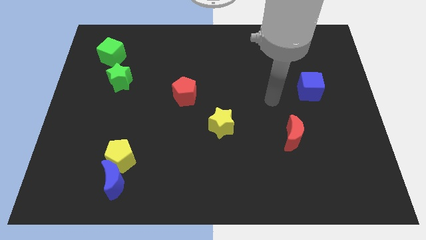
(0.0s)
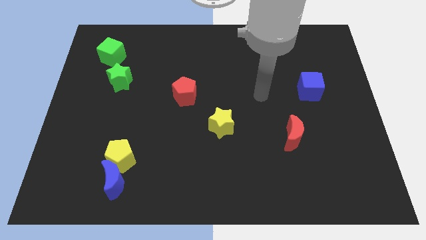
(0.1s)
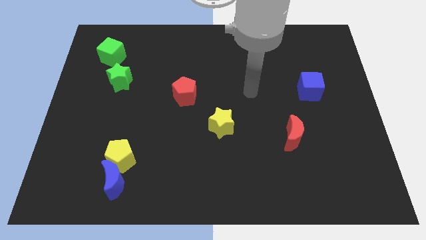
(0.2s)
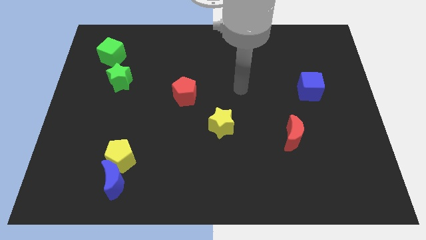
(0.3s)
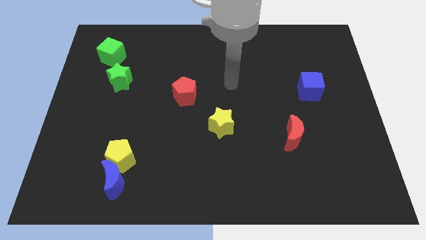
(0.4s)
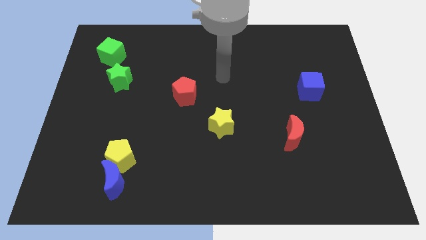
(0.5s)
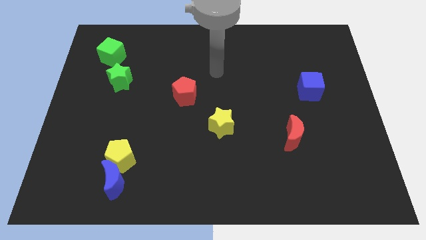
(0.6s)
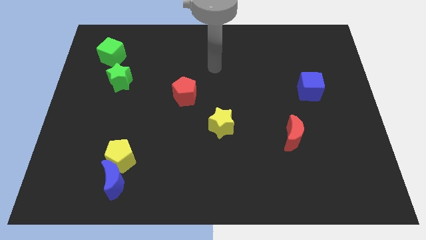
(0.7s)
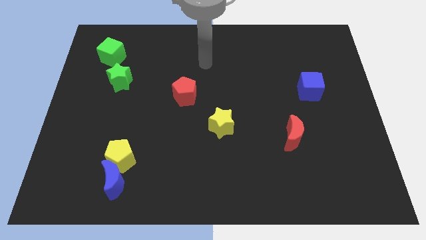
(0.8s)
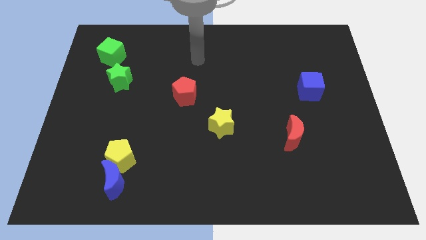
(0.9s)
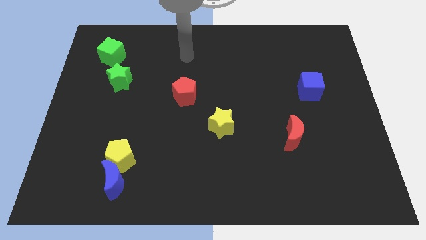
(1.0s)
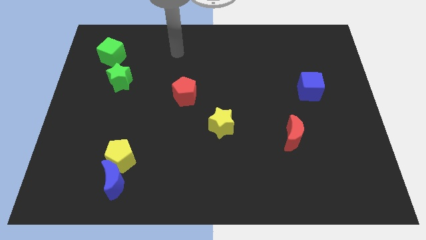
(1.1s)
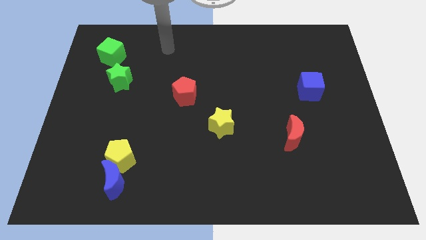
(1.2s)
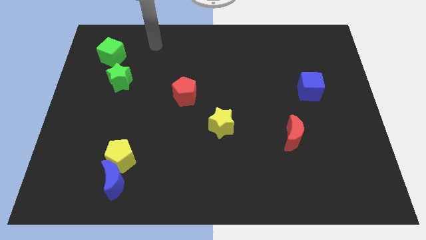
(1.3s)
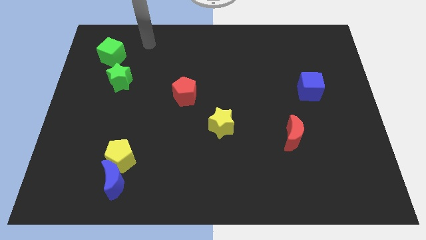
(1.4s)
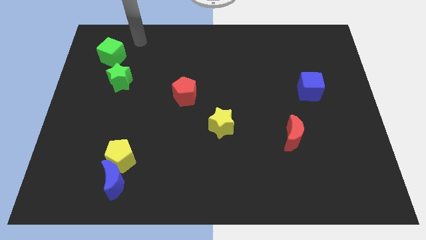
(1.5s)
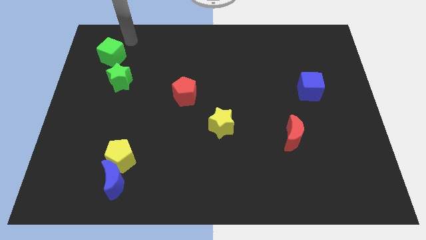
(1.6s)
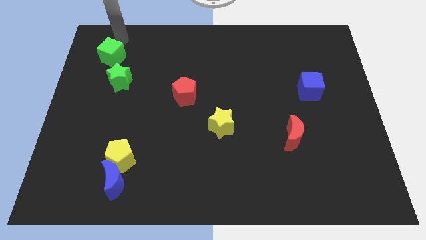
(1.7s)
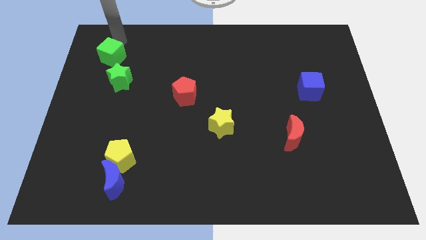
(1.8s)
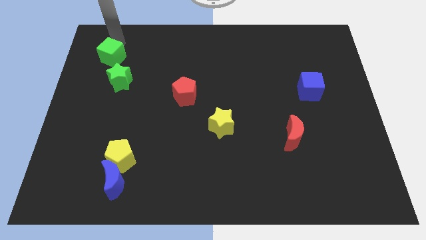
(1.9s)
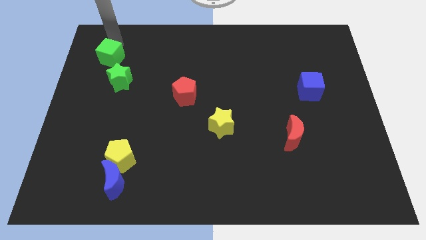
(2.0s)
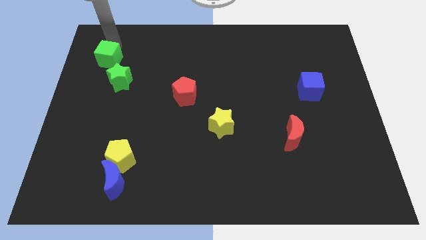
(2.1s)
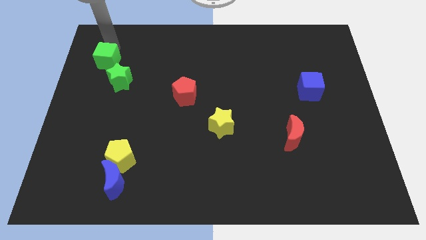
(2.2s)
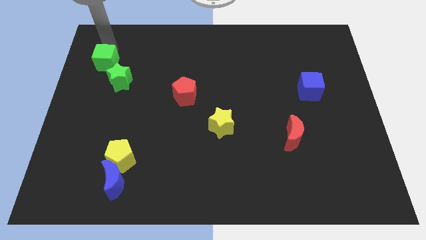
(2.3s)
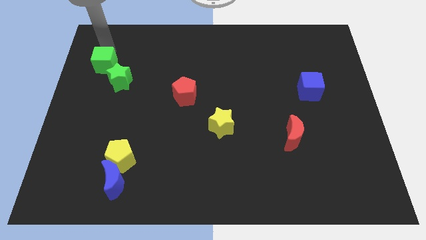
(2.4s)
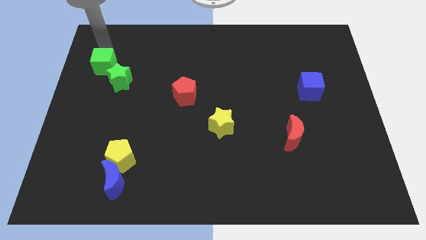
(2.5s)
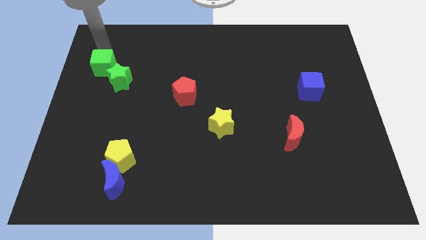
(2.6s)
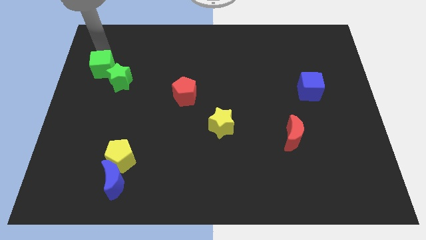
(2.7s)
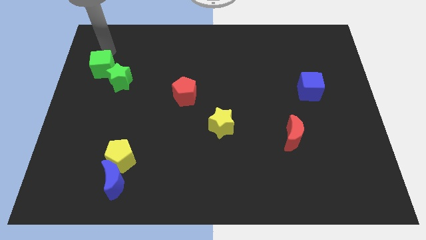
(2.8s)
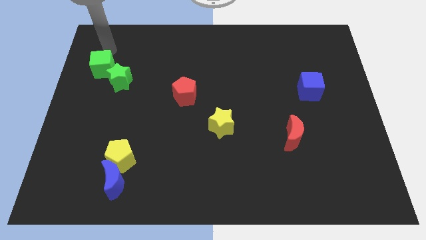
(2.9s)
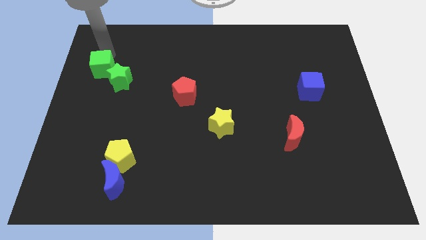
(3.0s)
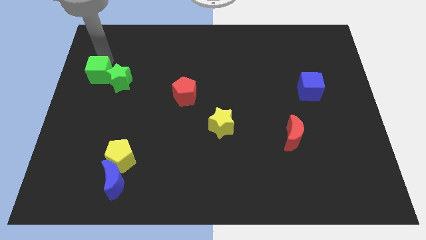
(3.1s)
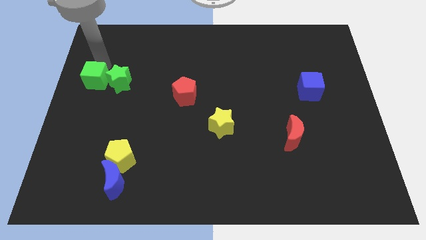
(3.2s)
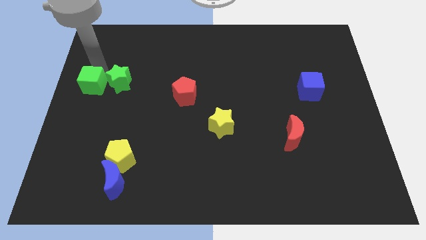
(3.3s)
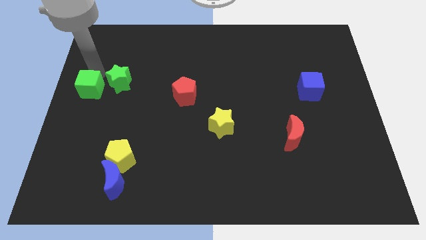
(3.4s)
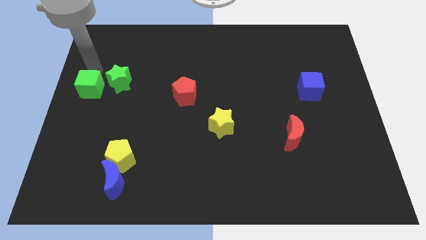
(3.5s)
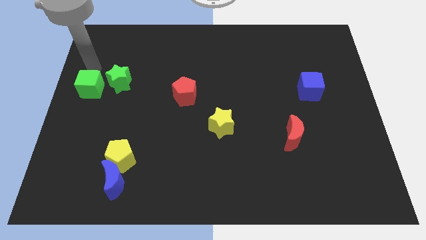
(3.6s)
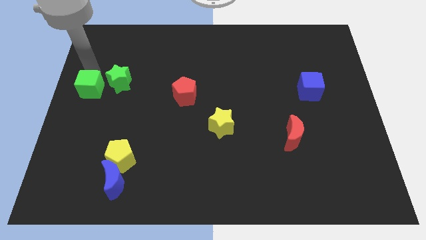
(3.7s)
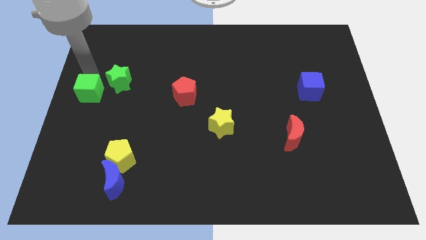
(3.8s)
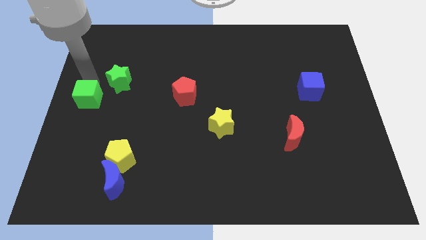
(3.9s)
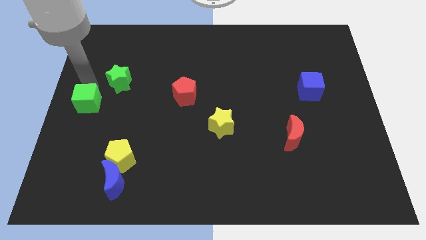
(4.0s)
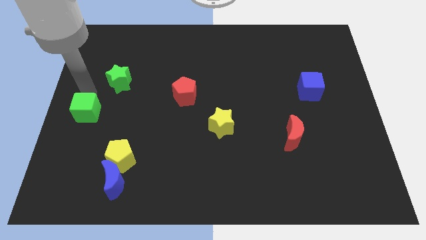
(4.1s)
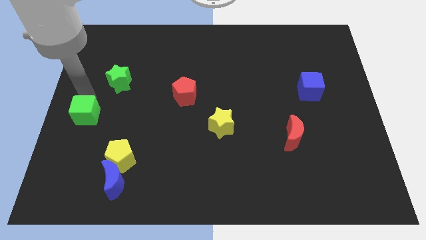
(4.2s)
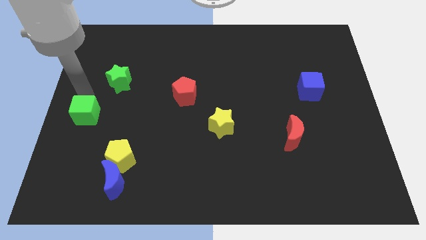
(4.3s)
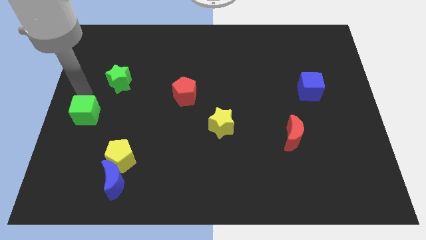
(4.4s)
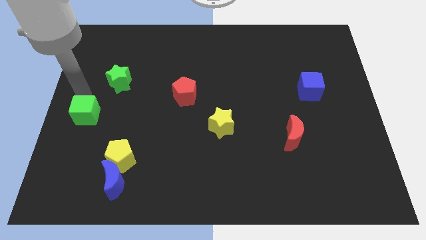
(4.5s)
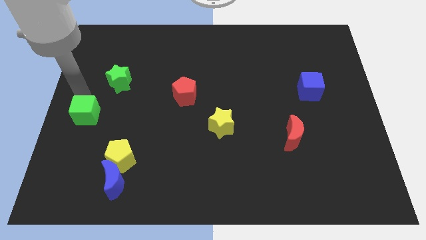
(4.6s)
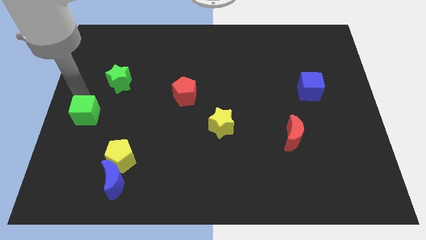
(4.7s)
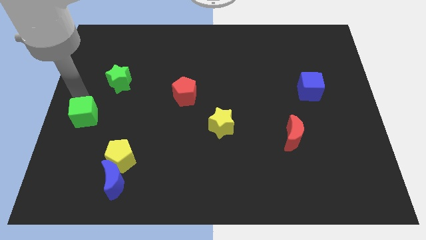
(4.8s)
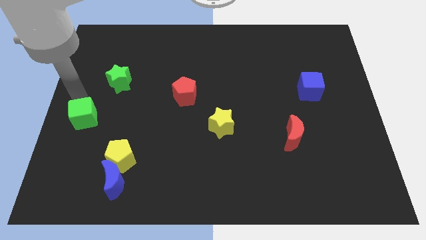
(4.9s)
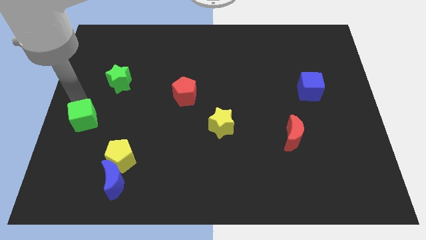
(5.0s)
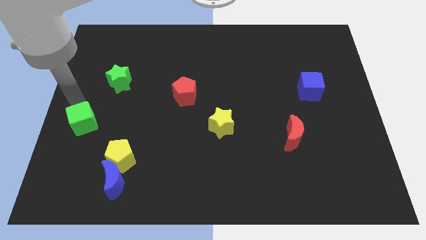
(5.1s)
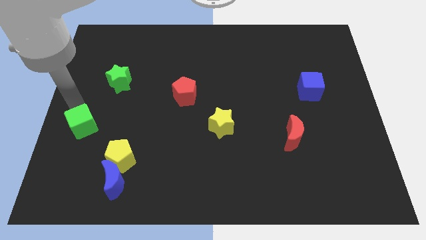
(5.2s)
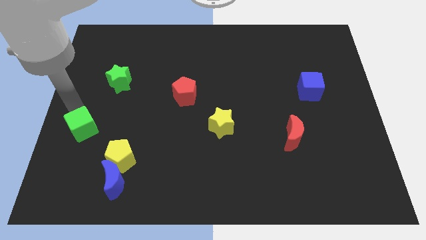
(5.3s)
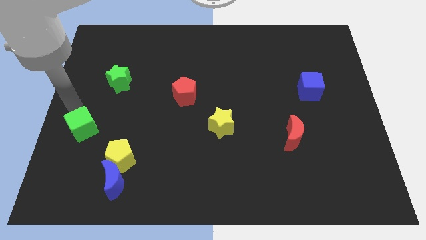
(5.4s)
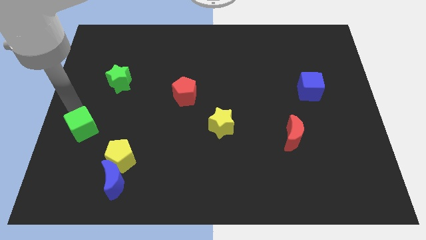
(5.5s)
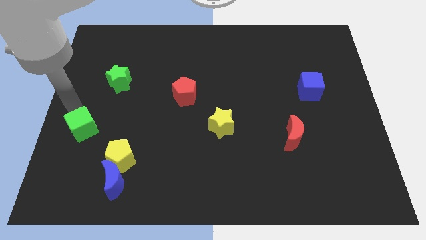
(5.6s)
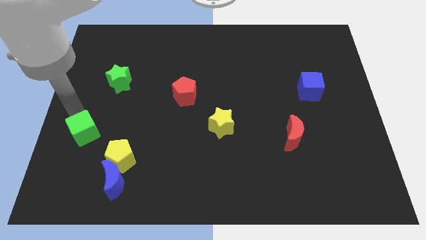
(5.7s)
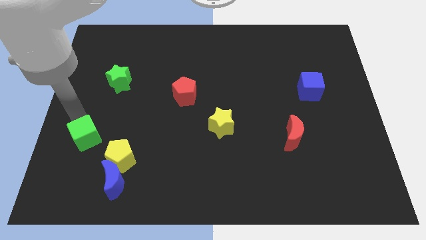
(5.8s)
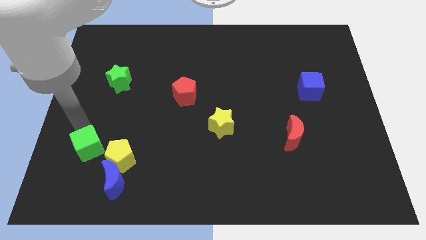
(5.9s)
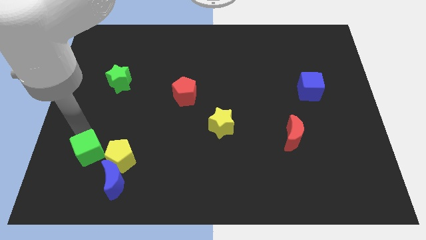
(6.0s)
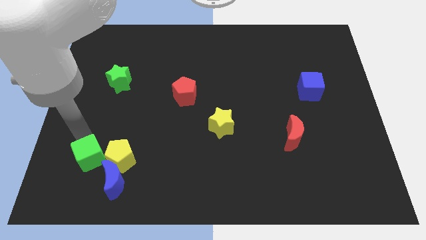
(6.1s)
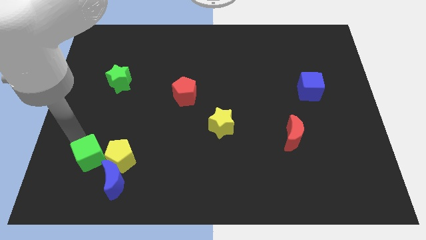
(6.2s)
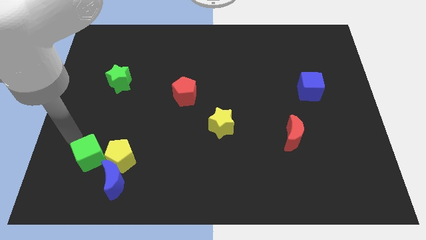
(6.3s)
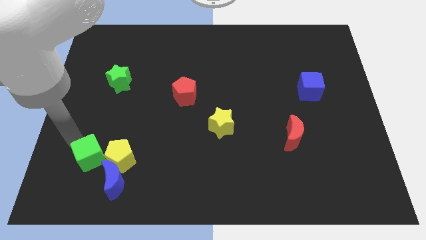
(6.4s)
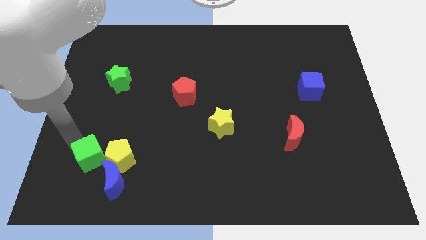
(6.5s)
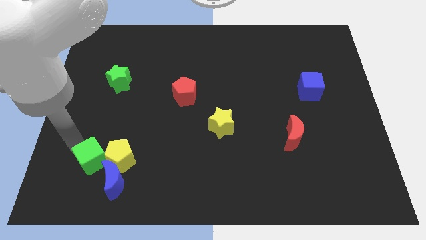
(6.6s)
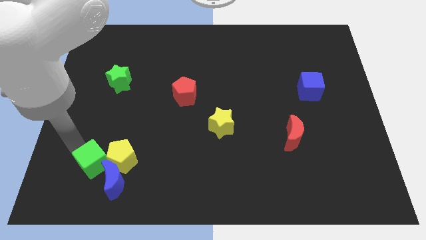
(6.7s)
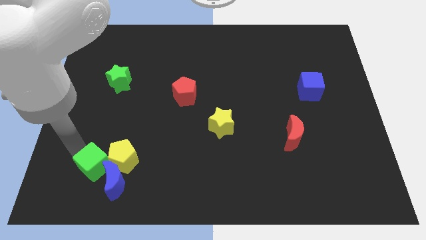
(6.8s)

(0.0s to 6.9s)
put the green cube next to the blue moon

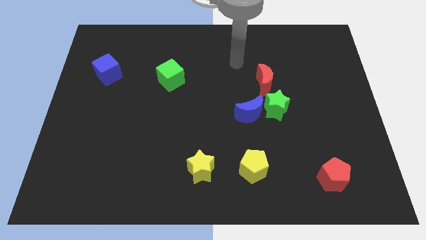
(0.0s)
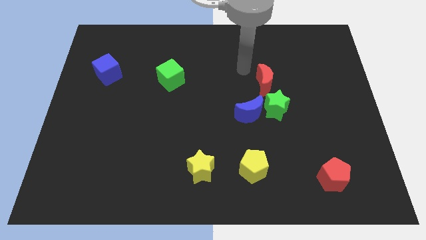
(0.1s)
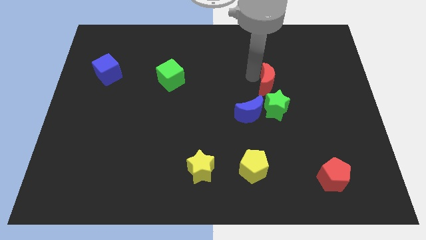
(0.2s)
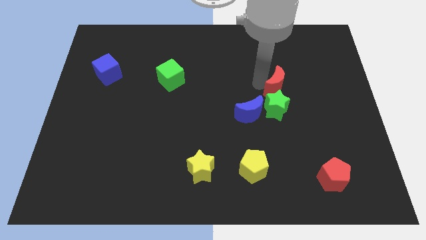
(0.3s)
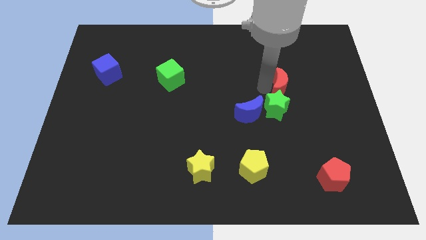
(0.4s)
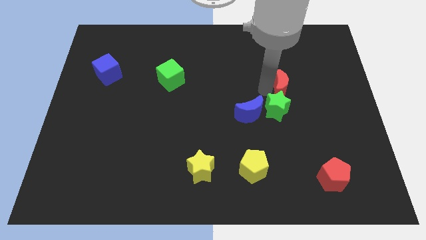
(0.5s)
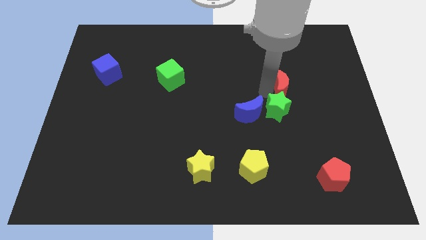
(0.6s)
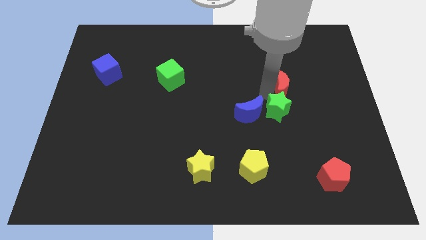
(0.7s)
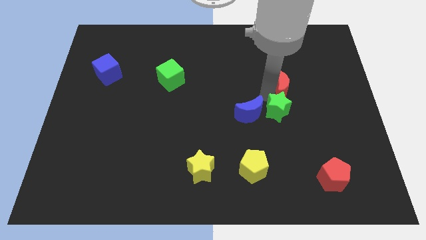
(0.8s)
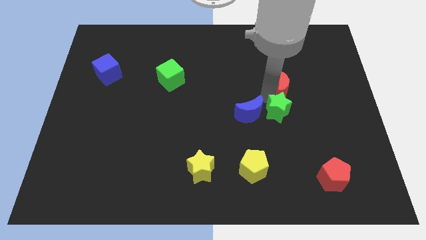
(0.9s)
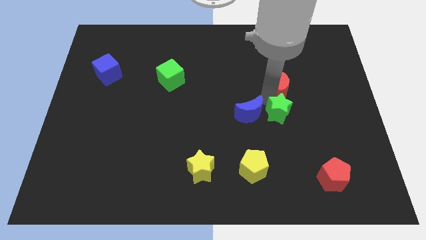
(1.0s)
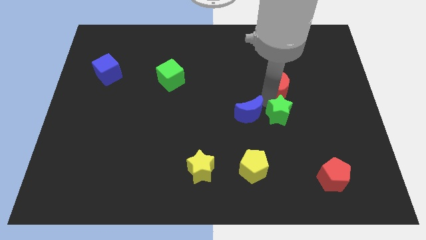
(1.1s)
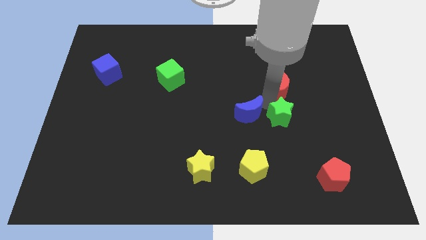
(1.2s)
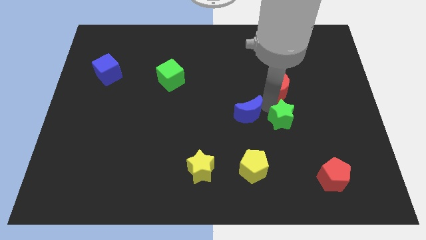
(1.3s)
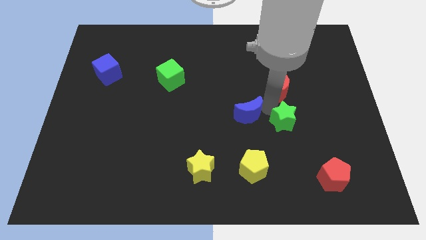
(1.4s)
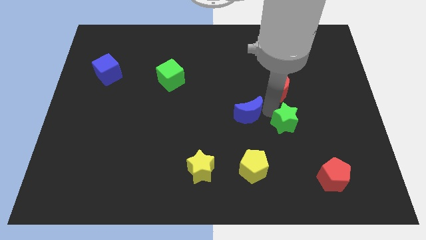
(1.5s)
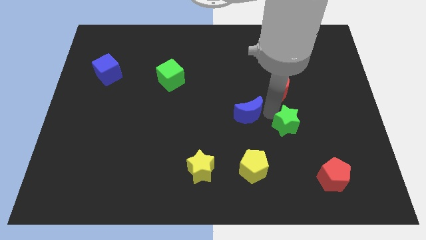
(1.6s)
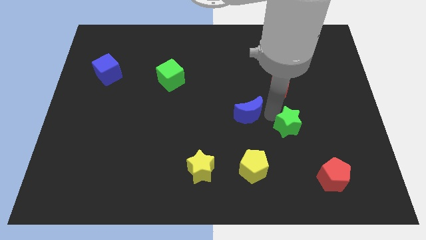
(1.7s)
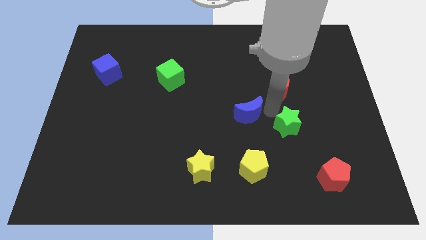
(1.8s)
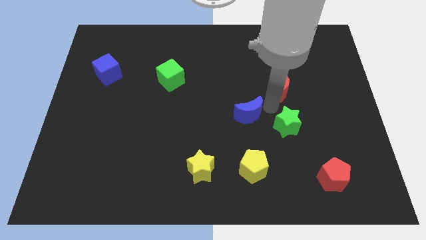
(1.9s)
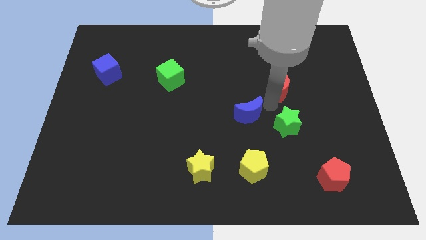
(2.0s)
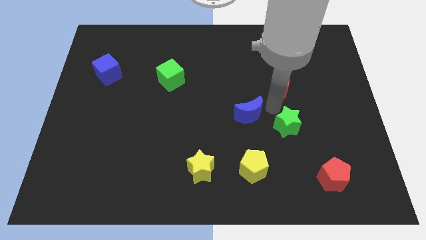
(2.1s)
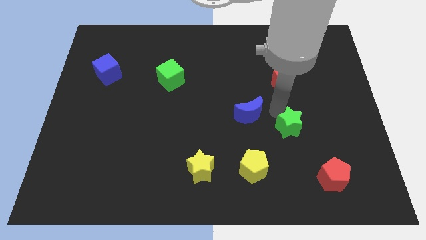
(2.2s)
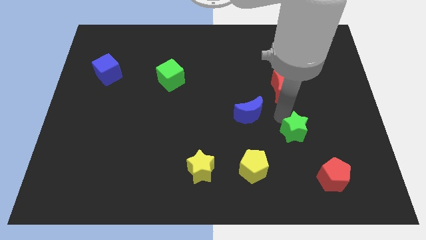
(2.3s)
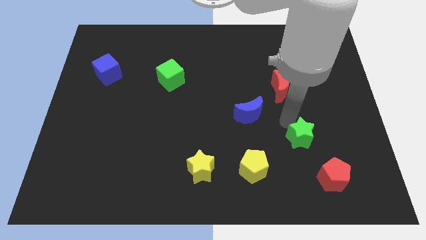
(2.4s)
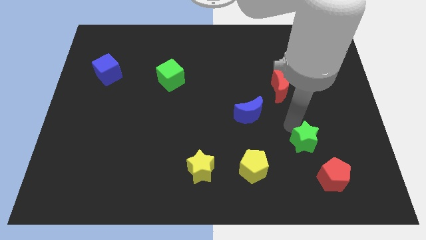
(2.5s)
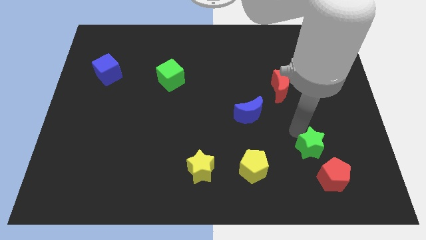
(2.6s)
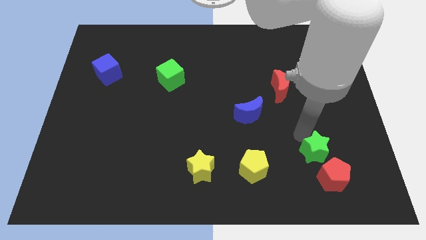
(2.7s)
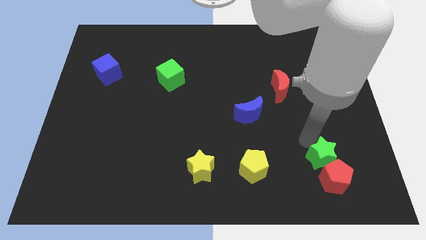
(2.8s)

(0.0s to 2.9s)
put the green star next to the red pentagon
